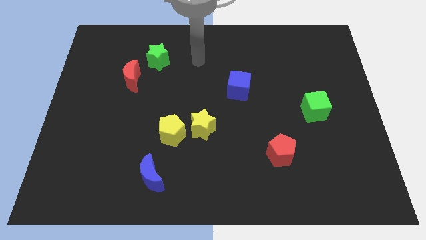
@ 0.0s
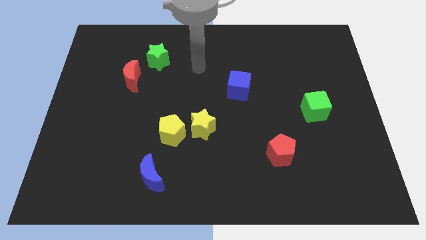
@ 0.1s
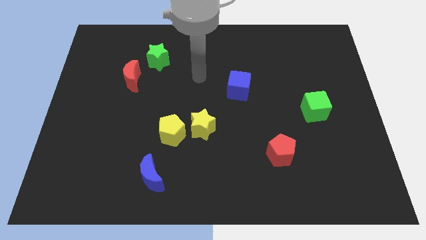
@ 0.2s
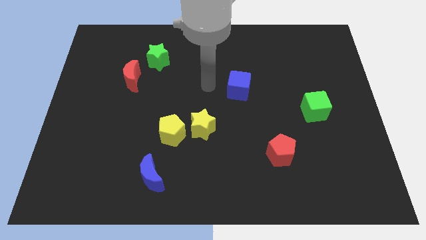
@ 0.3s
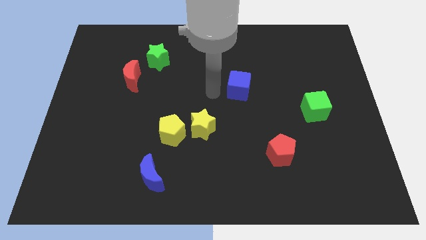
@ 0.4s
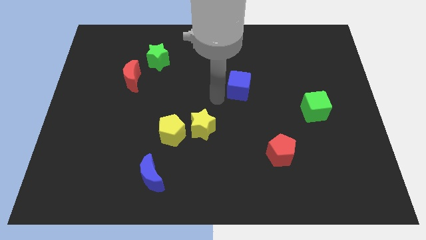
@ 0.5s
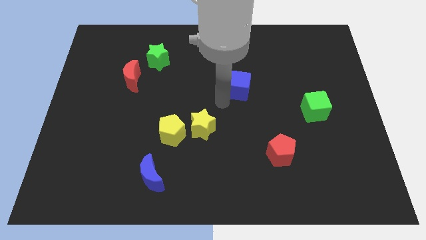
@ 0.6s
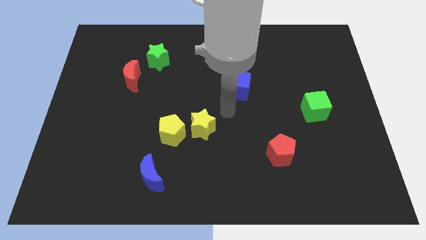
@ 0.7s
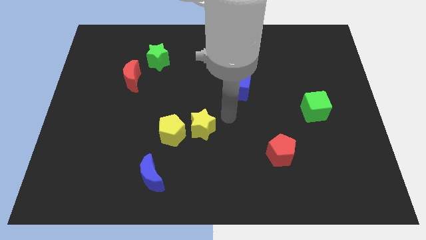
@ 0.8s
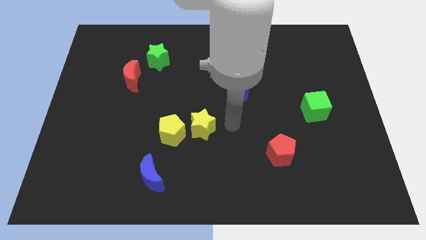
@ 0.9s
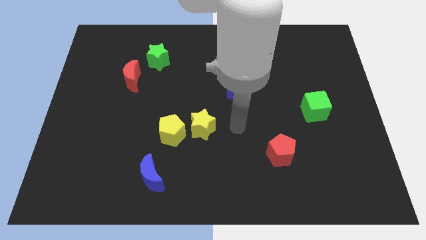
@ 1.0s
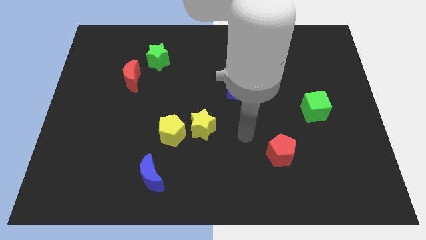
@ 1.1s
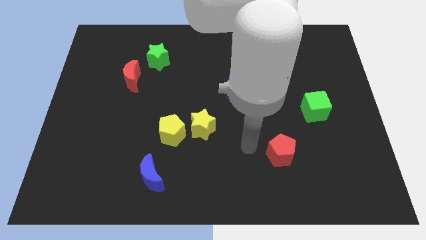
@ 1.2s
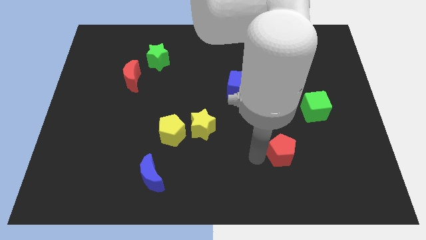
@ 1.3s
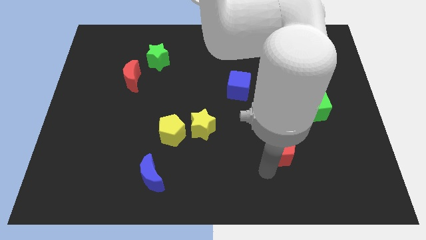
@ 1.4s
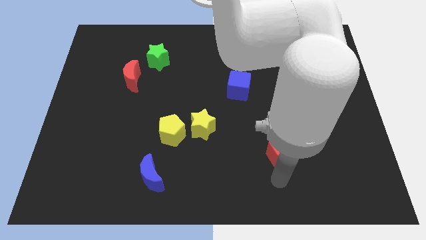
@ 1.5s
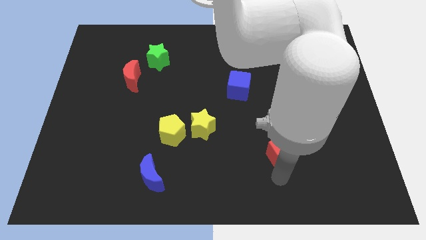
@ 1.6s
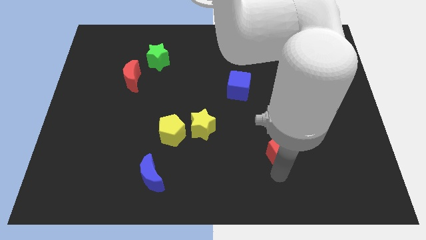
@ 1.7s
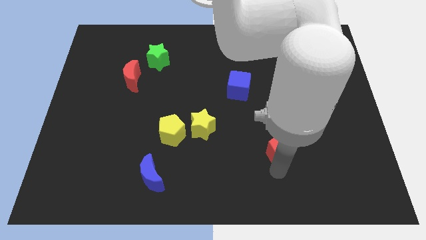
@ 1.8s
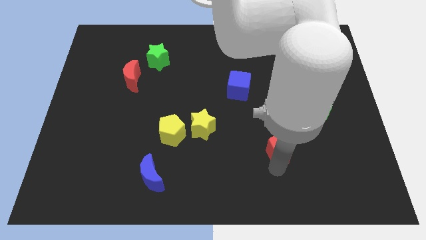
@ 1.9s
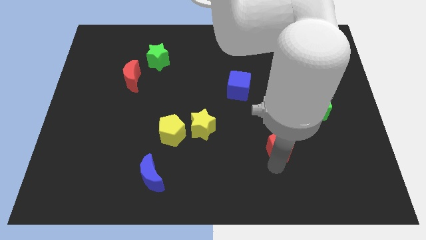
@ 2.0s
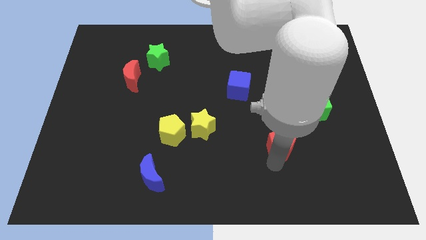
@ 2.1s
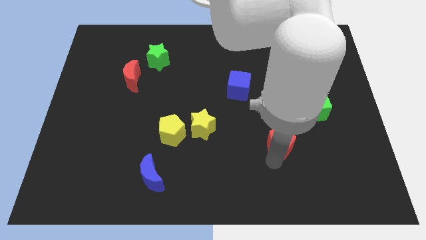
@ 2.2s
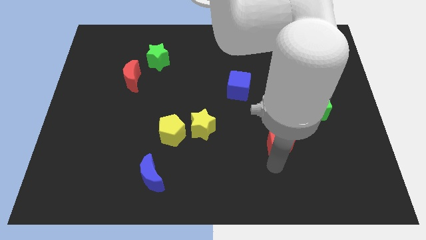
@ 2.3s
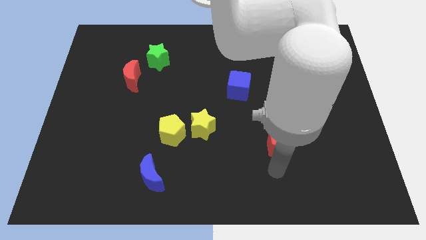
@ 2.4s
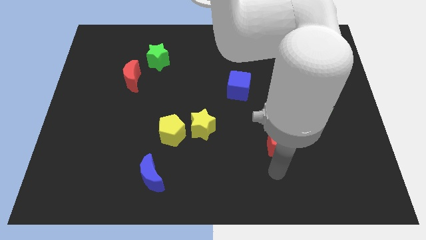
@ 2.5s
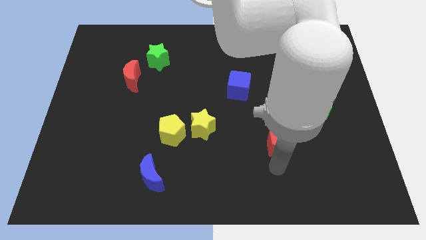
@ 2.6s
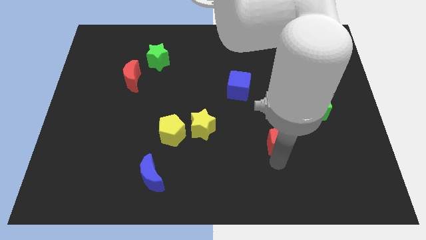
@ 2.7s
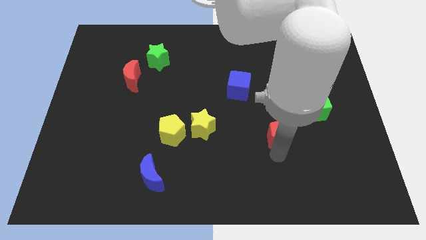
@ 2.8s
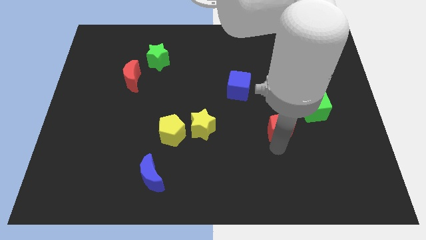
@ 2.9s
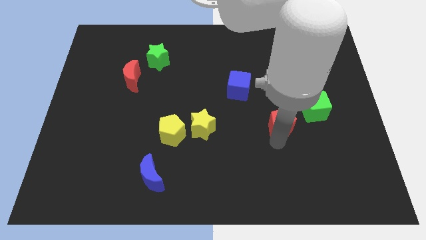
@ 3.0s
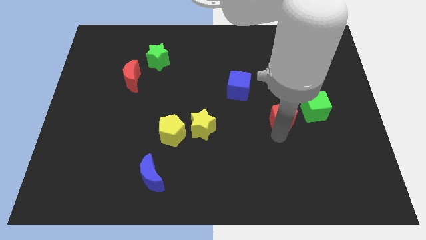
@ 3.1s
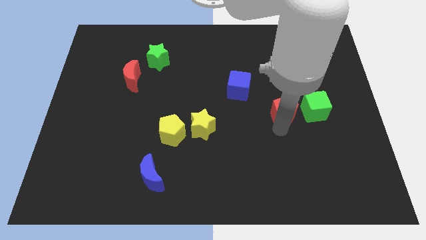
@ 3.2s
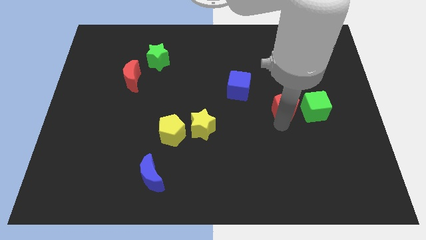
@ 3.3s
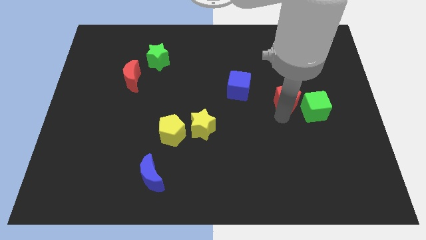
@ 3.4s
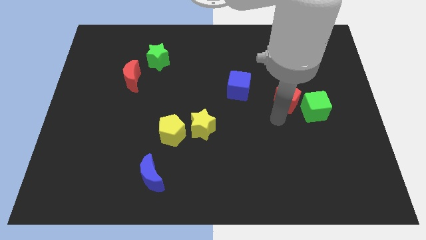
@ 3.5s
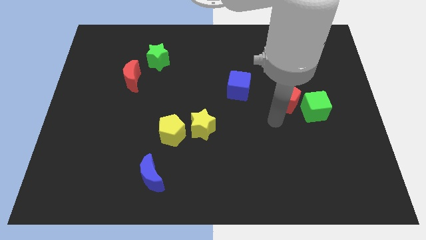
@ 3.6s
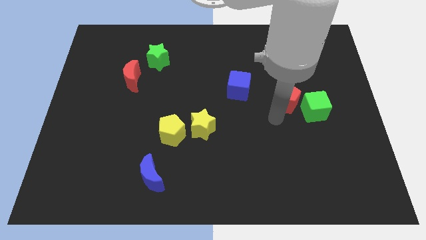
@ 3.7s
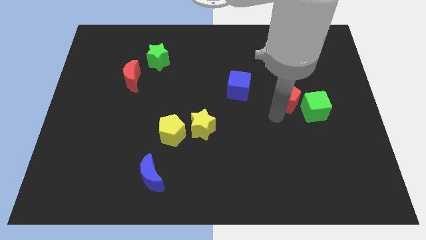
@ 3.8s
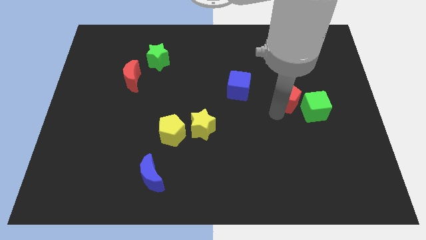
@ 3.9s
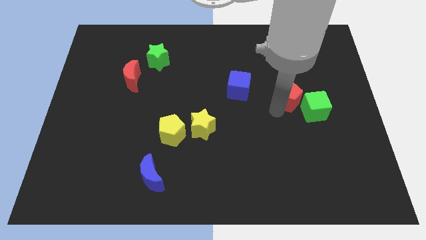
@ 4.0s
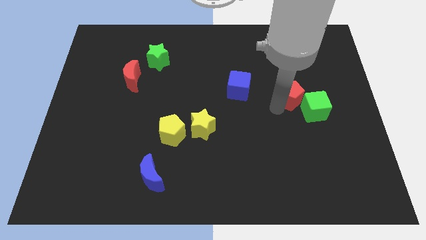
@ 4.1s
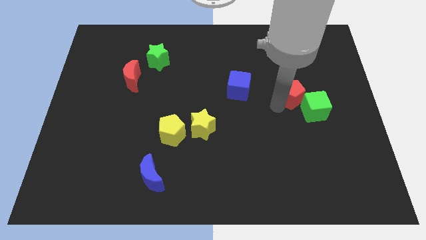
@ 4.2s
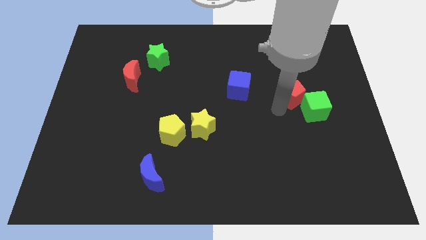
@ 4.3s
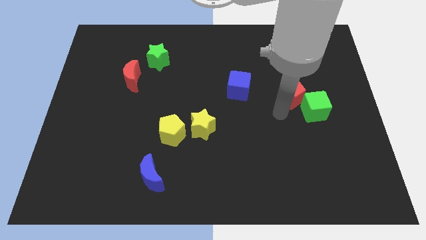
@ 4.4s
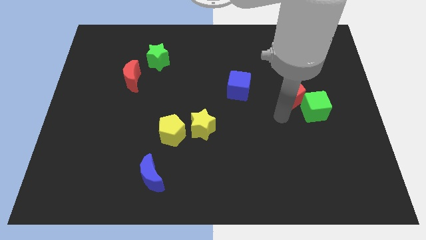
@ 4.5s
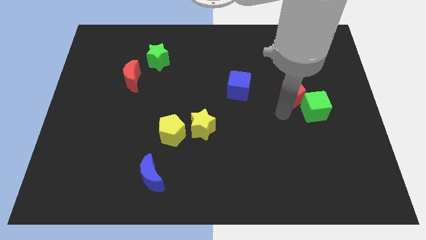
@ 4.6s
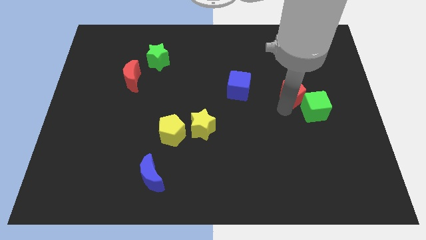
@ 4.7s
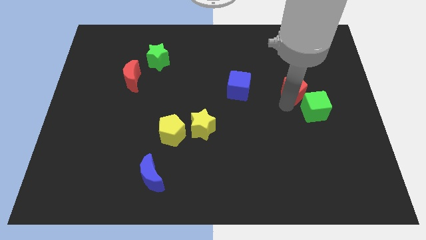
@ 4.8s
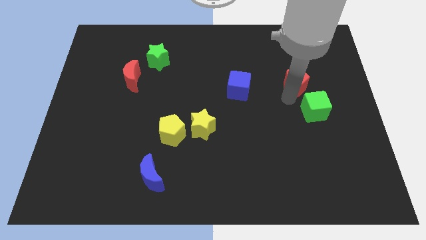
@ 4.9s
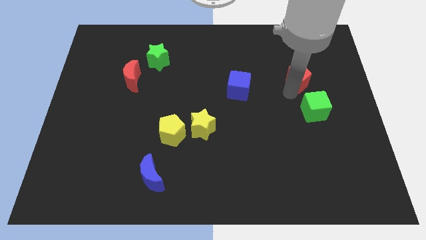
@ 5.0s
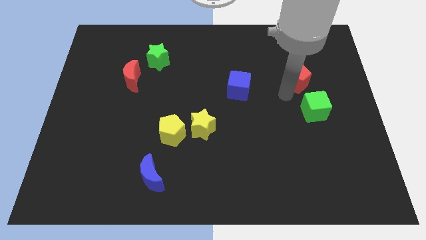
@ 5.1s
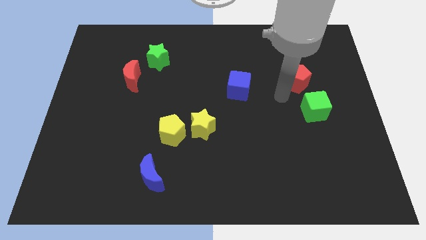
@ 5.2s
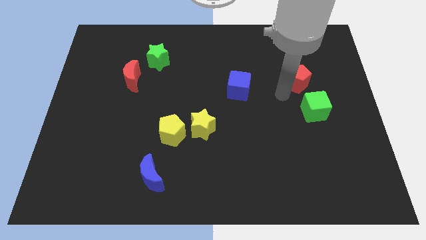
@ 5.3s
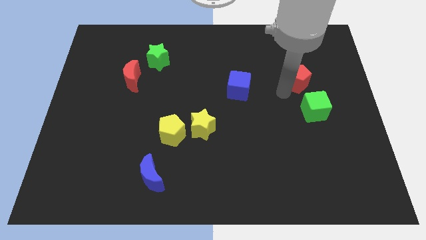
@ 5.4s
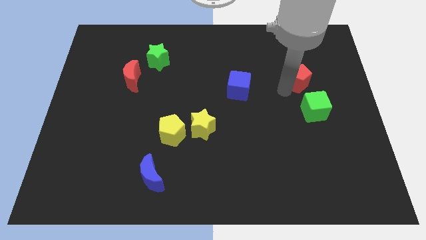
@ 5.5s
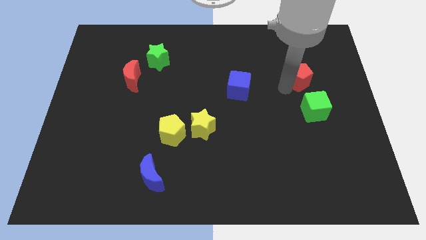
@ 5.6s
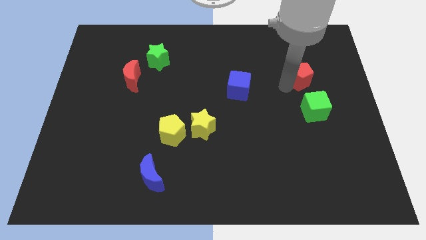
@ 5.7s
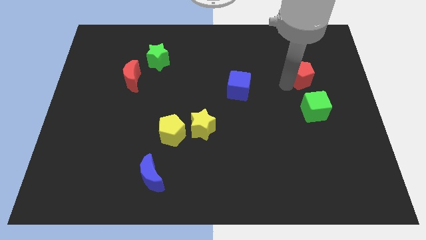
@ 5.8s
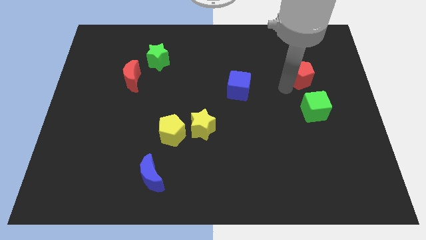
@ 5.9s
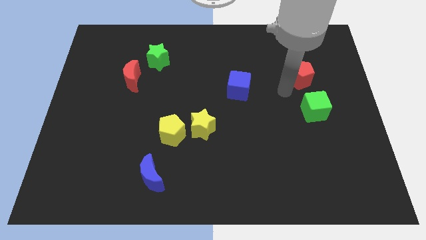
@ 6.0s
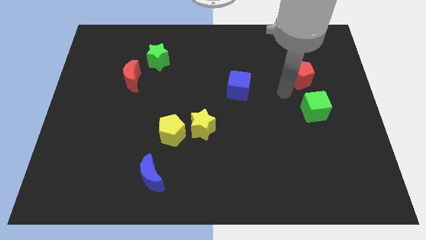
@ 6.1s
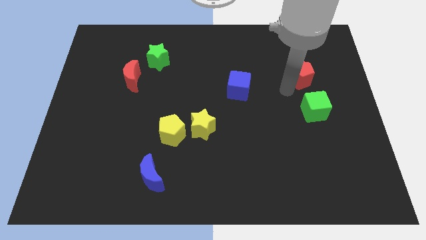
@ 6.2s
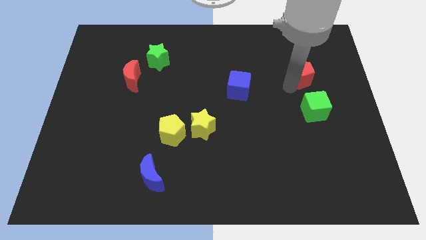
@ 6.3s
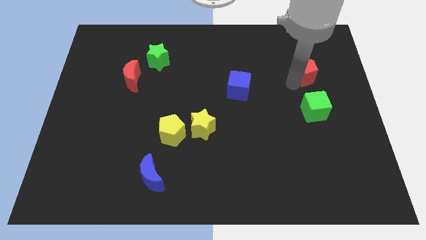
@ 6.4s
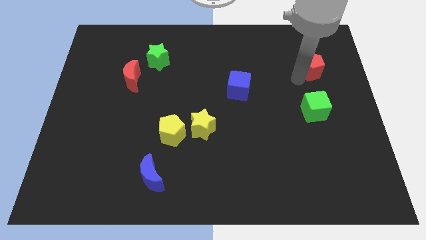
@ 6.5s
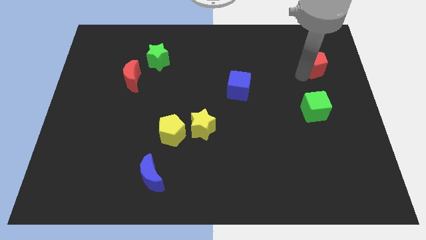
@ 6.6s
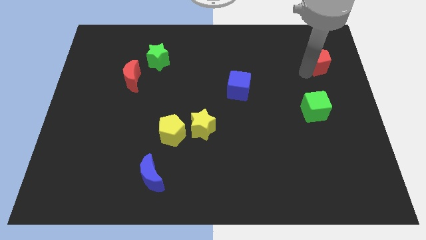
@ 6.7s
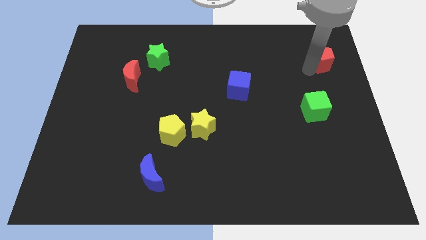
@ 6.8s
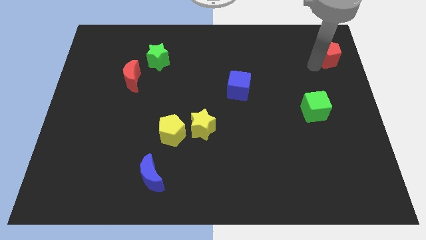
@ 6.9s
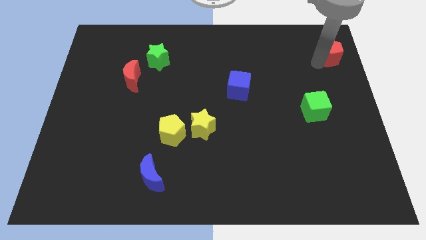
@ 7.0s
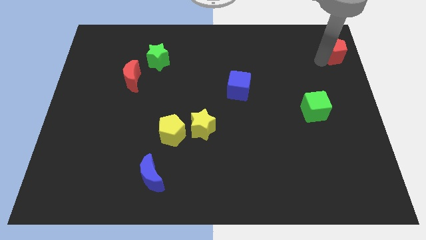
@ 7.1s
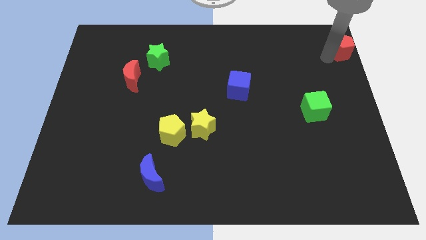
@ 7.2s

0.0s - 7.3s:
put the red pentagon to the top right of the board

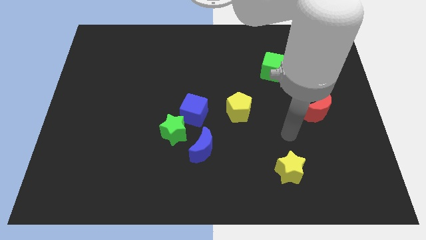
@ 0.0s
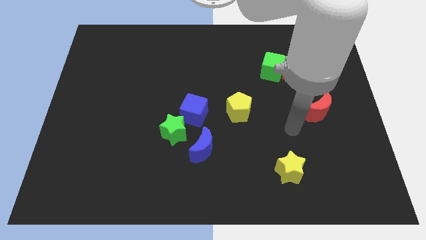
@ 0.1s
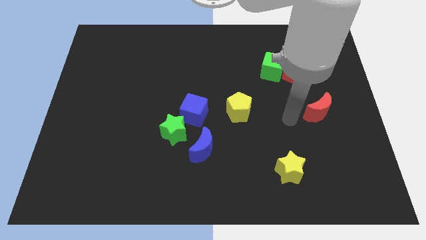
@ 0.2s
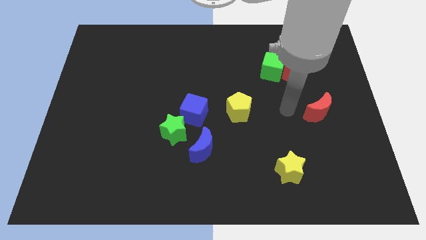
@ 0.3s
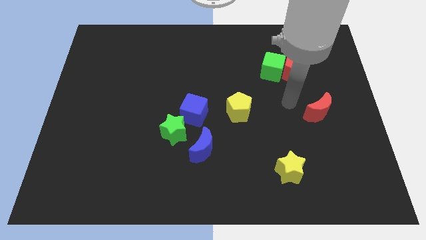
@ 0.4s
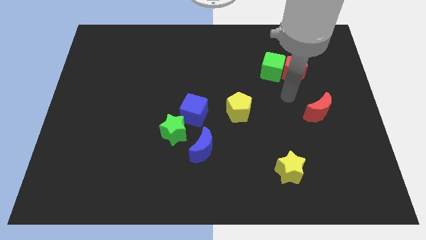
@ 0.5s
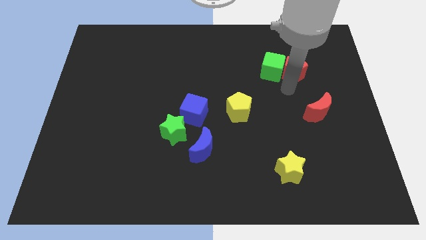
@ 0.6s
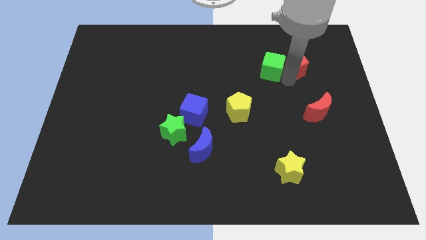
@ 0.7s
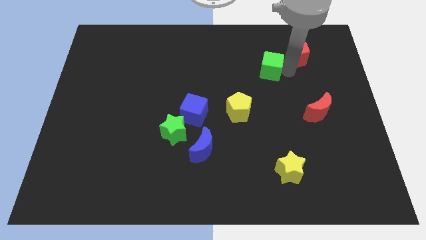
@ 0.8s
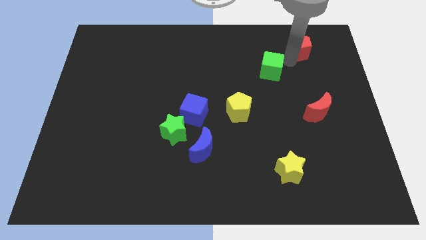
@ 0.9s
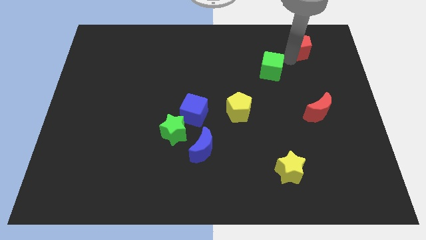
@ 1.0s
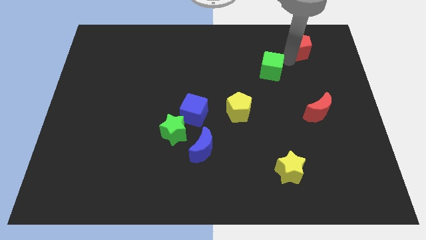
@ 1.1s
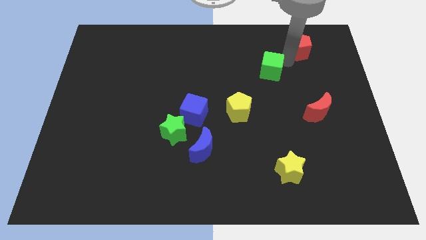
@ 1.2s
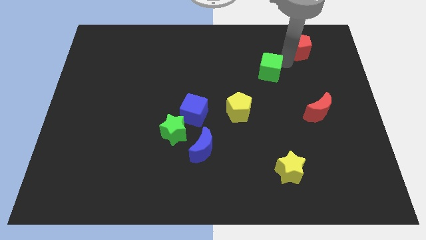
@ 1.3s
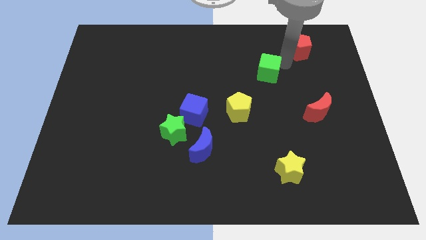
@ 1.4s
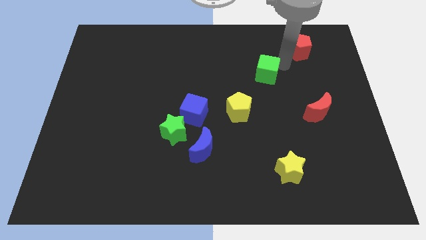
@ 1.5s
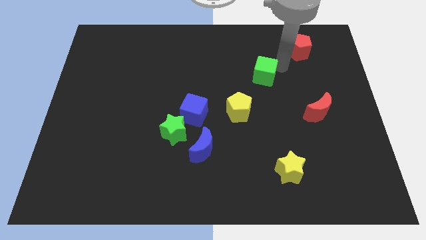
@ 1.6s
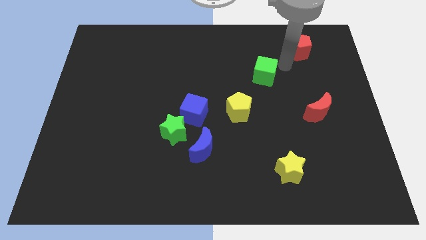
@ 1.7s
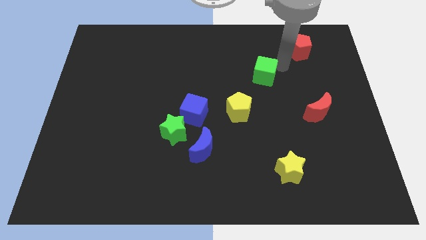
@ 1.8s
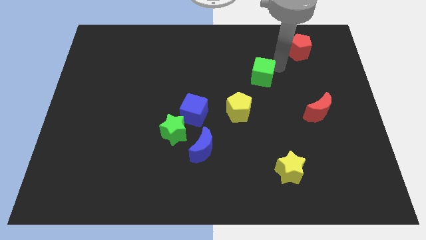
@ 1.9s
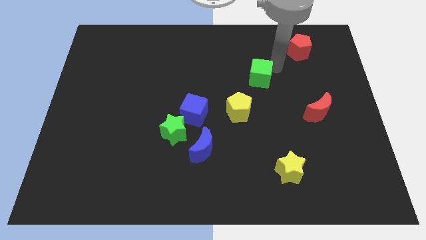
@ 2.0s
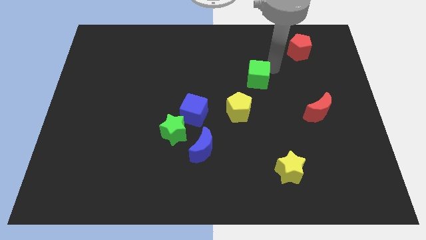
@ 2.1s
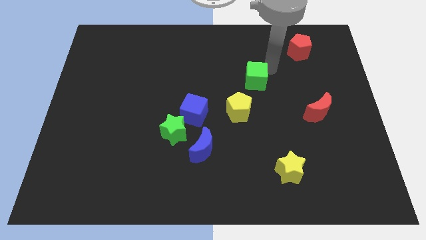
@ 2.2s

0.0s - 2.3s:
move the green cube to the middle of the board
